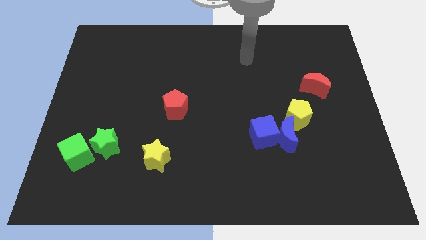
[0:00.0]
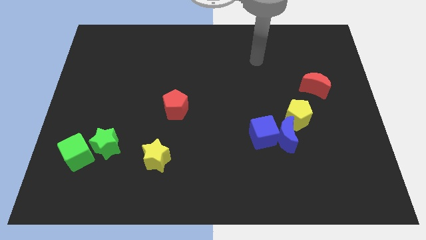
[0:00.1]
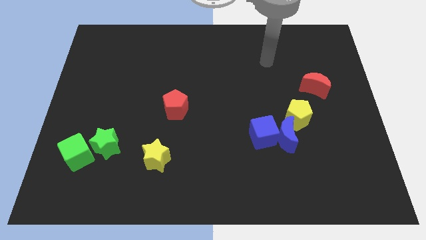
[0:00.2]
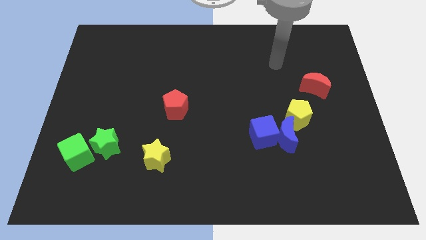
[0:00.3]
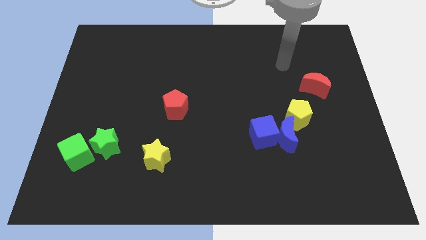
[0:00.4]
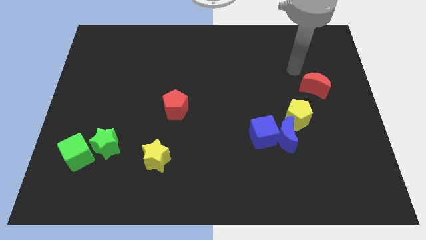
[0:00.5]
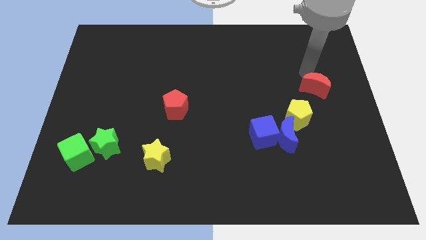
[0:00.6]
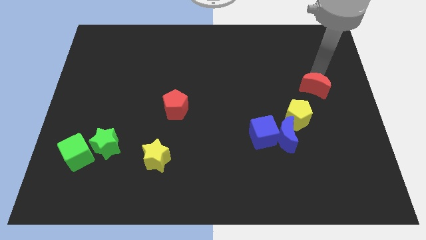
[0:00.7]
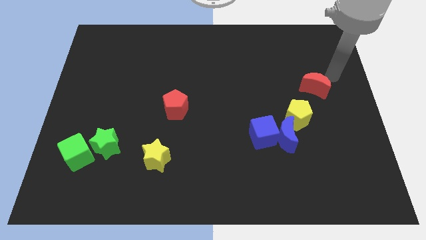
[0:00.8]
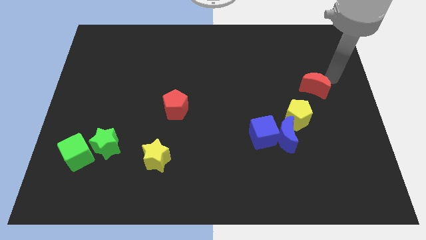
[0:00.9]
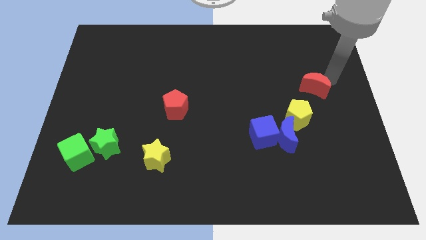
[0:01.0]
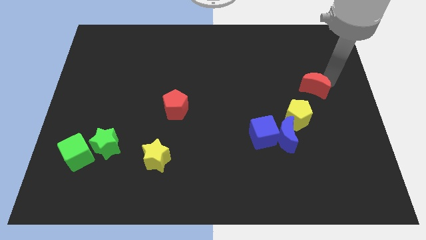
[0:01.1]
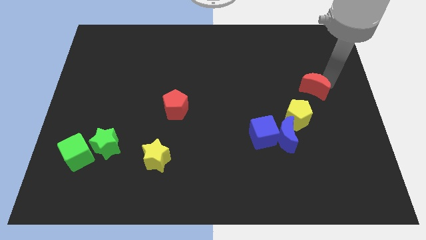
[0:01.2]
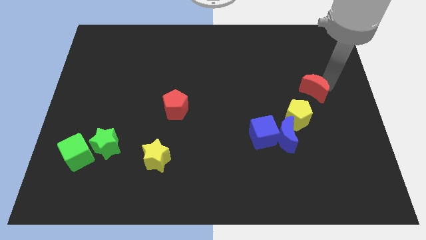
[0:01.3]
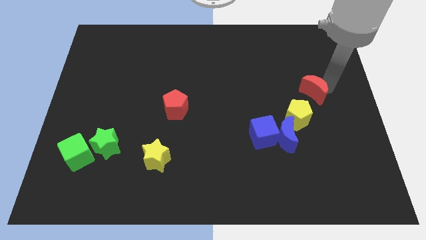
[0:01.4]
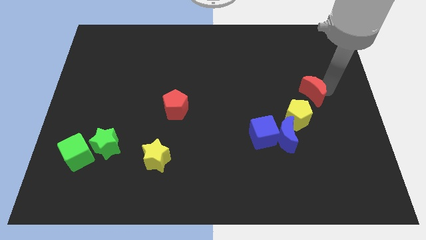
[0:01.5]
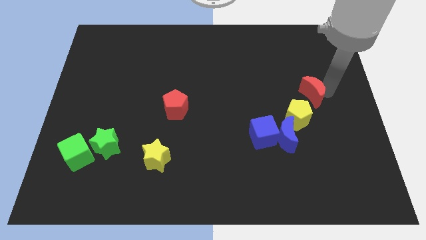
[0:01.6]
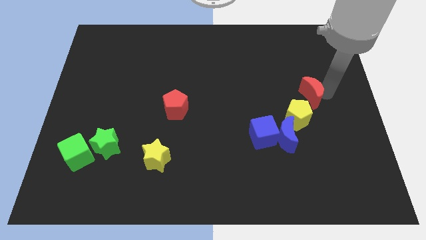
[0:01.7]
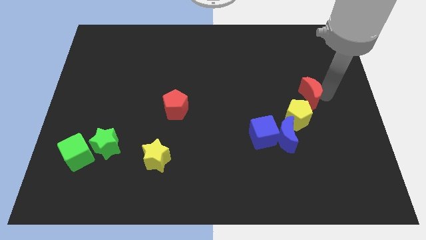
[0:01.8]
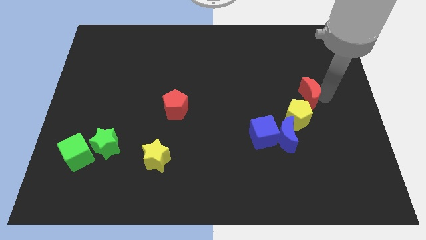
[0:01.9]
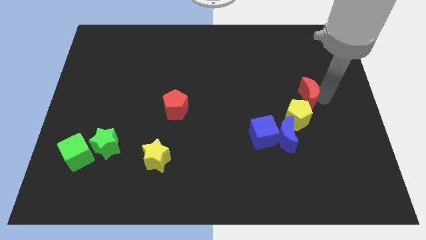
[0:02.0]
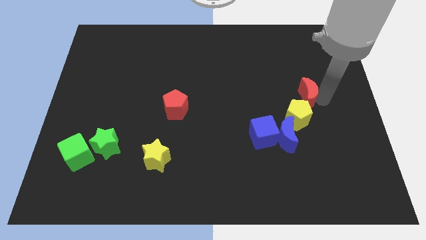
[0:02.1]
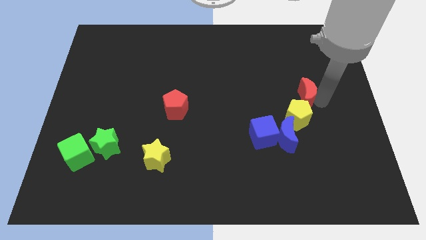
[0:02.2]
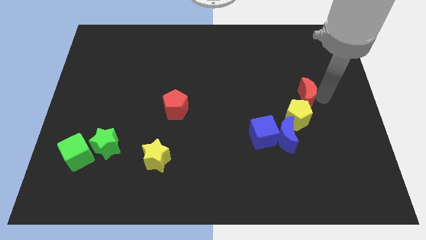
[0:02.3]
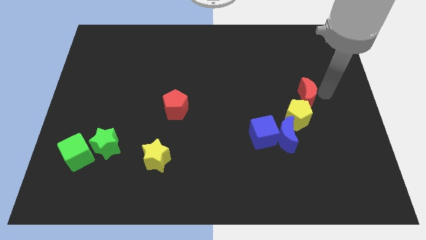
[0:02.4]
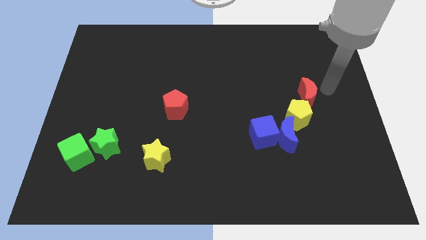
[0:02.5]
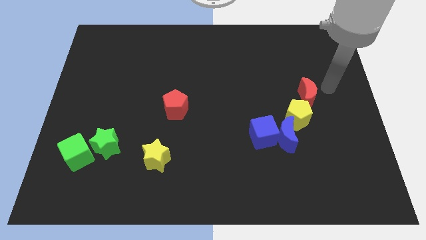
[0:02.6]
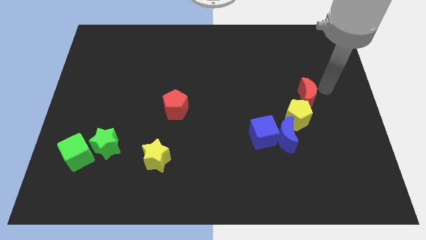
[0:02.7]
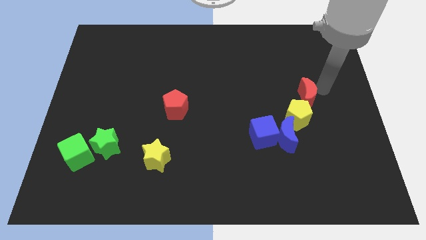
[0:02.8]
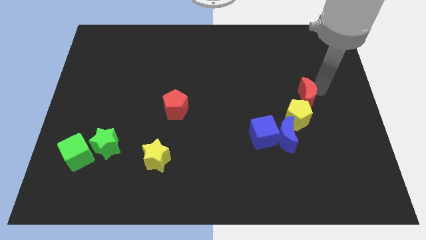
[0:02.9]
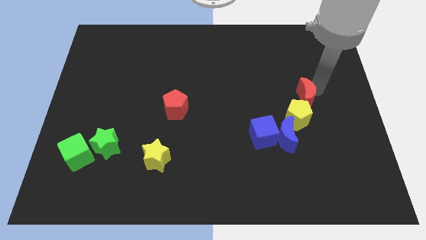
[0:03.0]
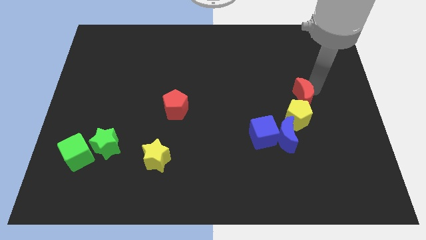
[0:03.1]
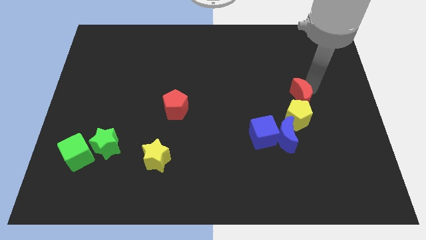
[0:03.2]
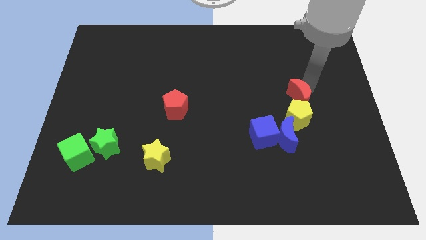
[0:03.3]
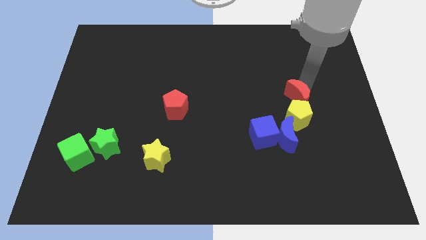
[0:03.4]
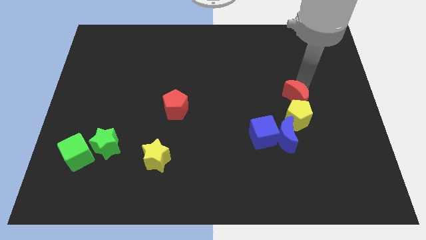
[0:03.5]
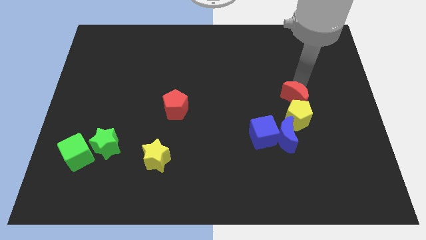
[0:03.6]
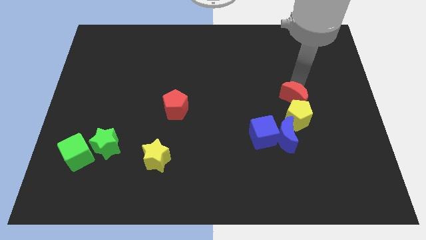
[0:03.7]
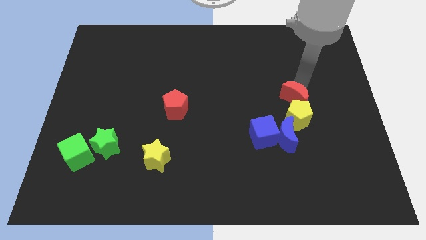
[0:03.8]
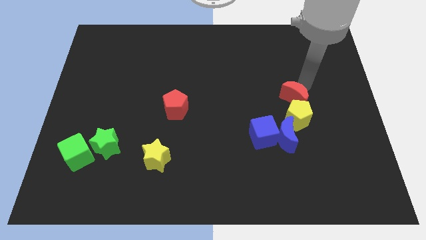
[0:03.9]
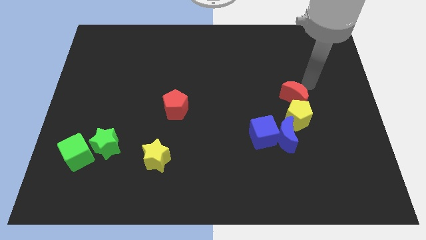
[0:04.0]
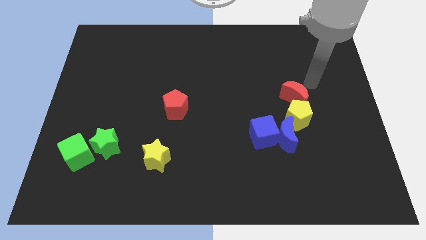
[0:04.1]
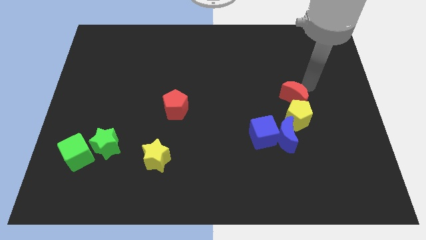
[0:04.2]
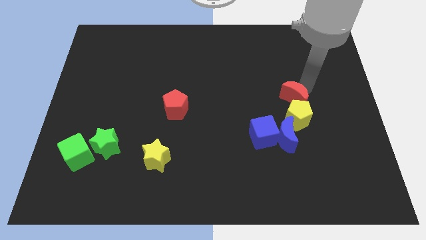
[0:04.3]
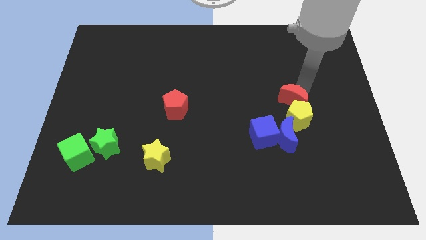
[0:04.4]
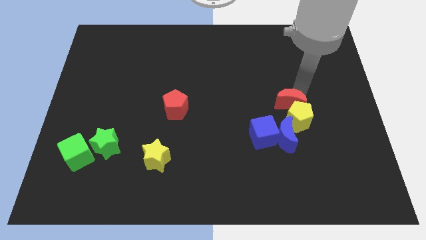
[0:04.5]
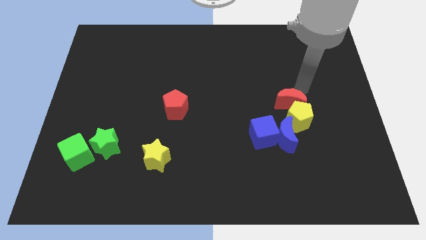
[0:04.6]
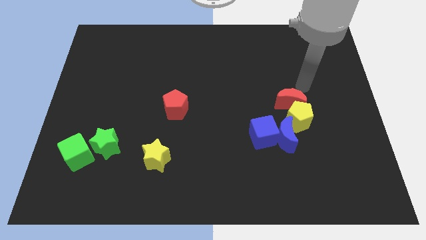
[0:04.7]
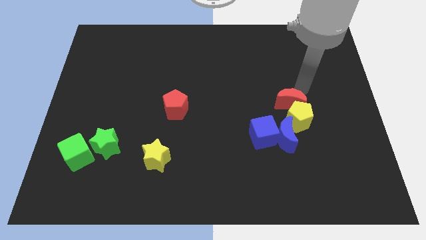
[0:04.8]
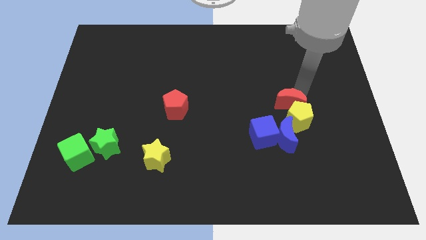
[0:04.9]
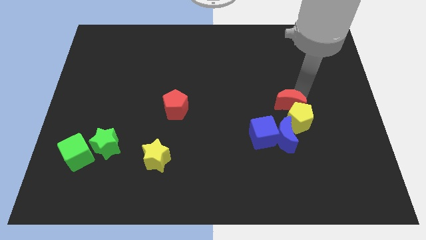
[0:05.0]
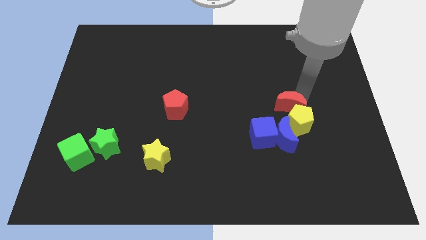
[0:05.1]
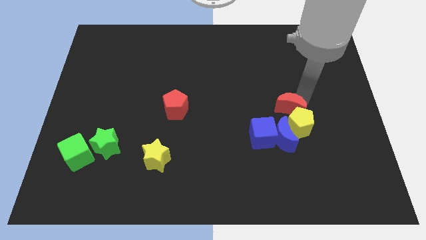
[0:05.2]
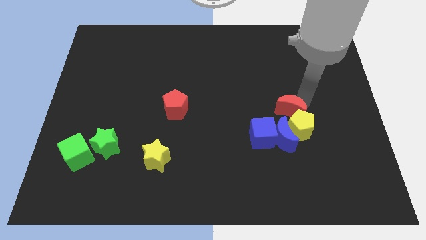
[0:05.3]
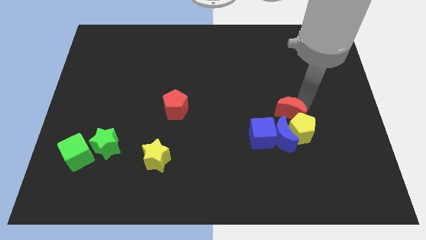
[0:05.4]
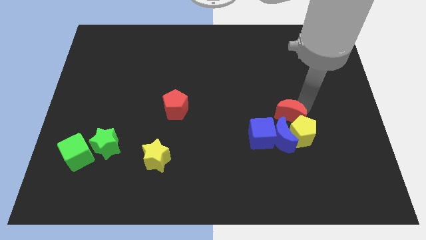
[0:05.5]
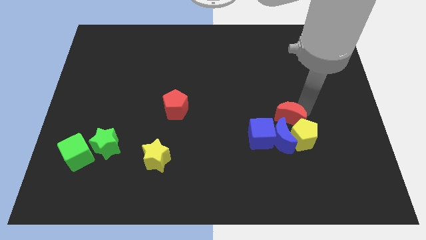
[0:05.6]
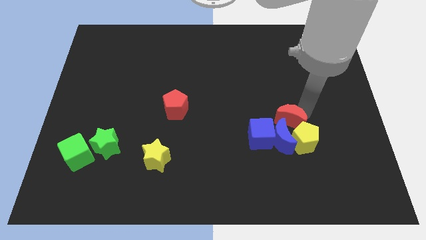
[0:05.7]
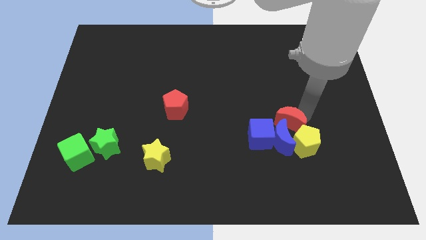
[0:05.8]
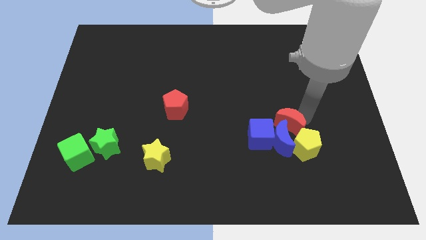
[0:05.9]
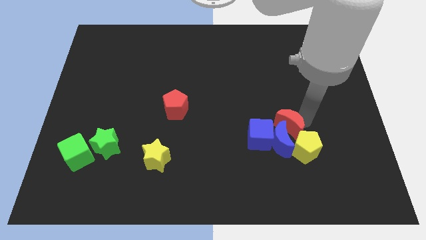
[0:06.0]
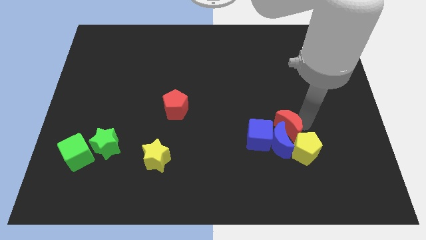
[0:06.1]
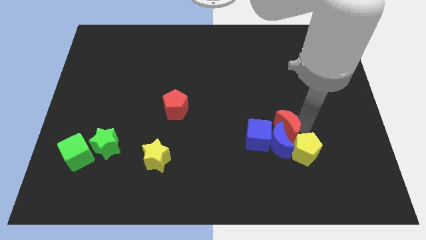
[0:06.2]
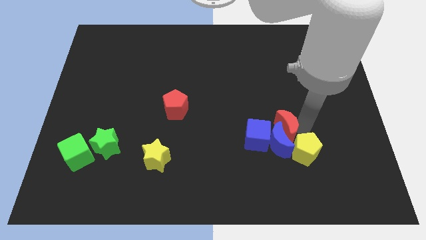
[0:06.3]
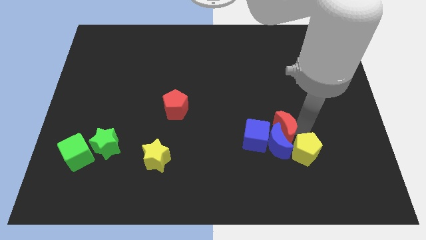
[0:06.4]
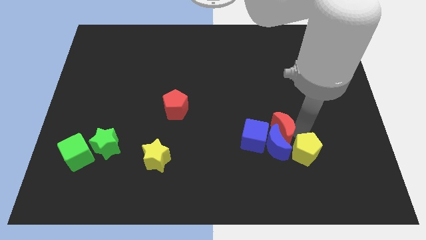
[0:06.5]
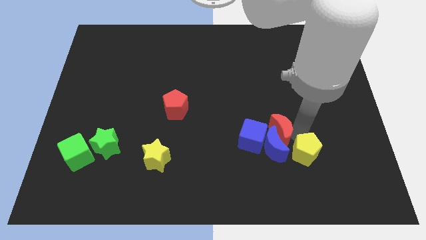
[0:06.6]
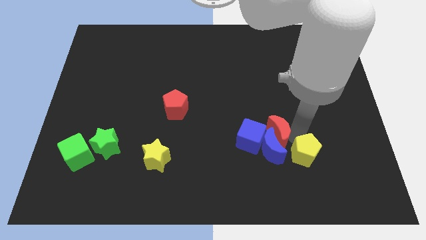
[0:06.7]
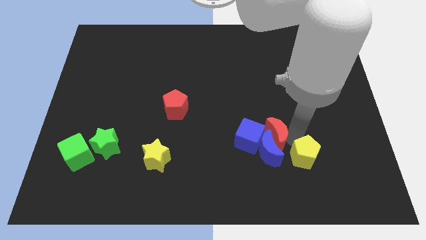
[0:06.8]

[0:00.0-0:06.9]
move the red moon next to the blue cube
